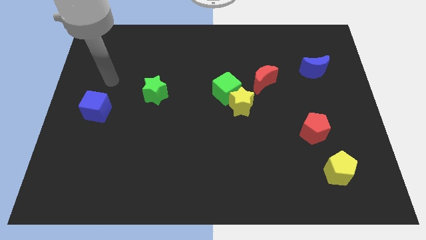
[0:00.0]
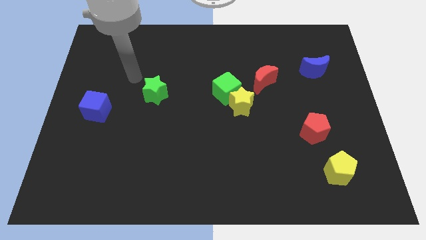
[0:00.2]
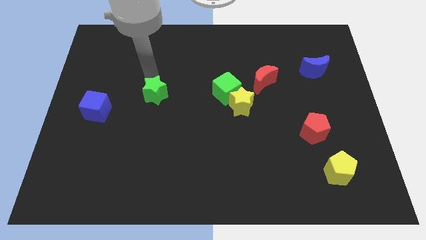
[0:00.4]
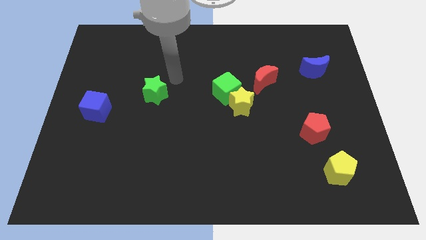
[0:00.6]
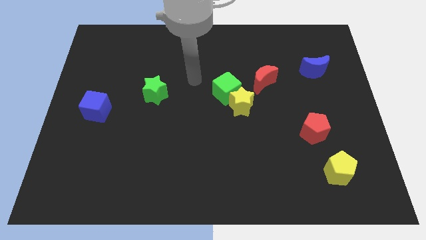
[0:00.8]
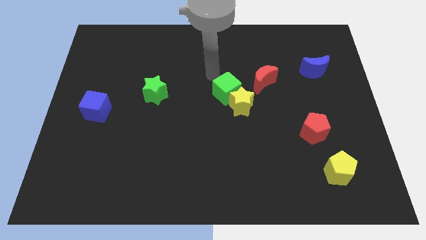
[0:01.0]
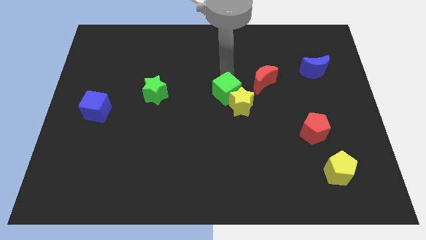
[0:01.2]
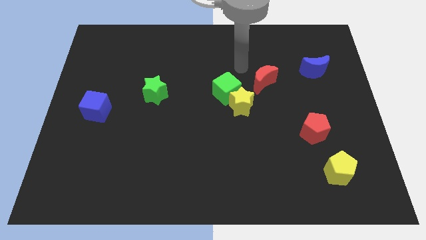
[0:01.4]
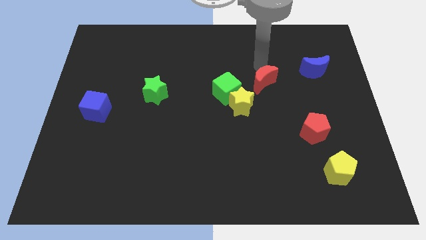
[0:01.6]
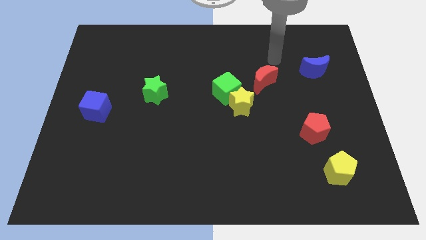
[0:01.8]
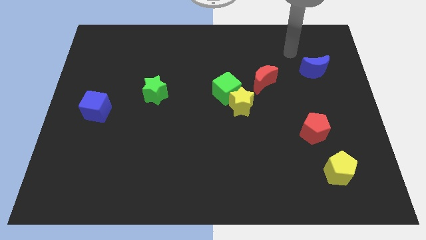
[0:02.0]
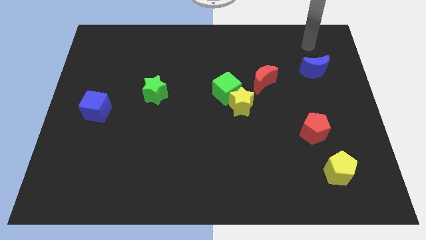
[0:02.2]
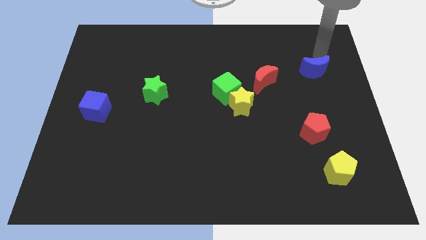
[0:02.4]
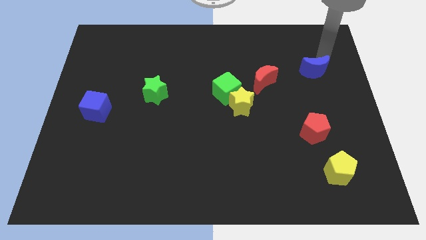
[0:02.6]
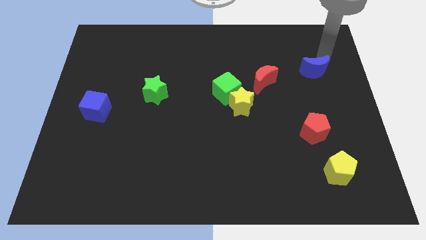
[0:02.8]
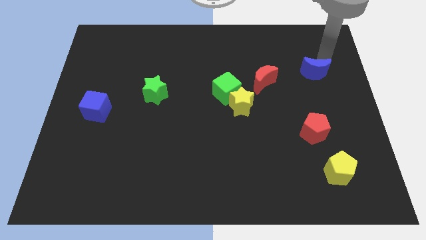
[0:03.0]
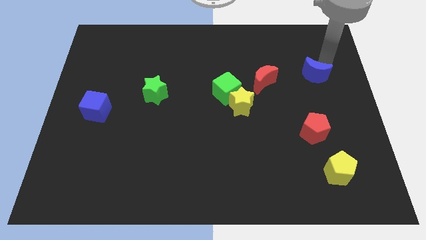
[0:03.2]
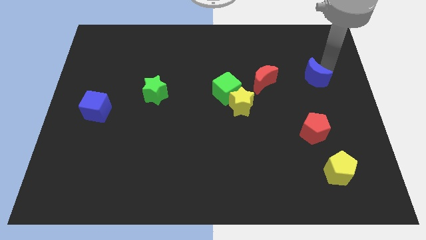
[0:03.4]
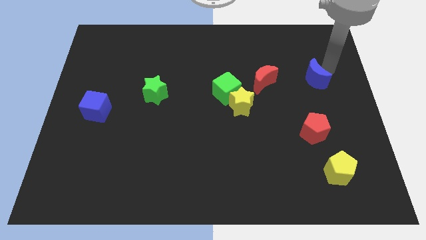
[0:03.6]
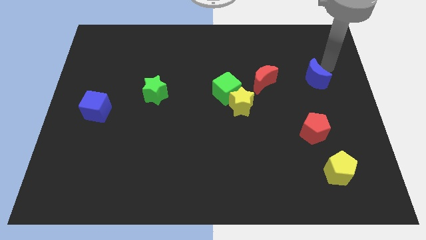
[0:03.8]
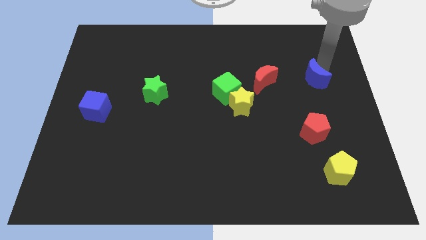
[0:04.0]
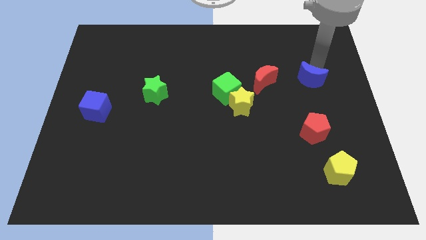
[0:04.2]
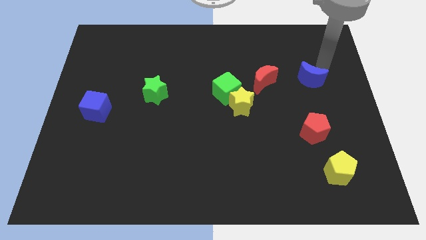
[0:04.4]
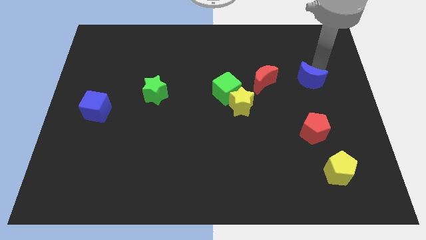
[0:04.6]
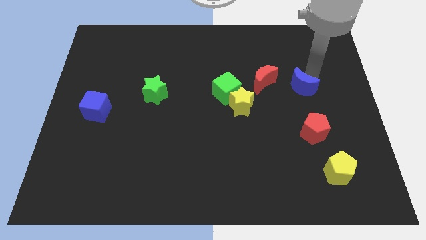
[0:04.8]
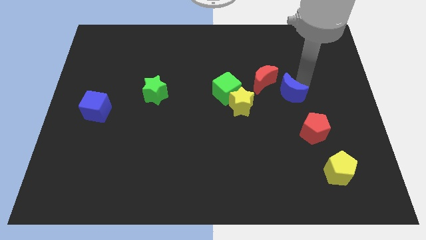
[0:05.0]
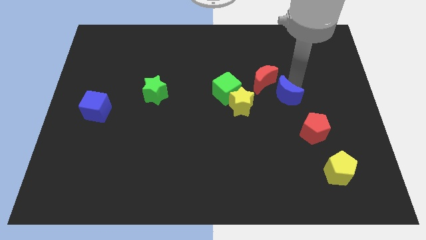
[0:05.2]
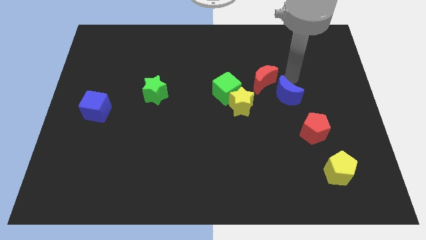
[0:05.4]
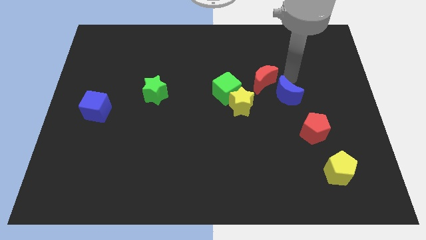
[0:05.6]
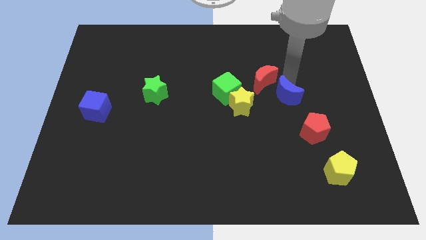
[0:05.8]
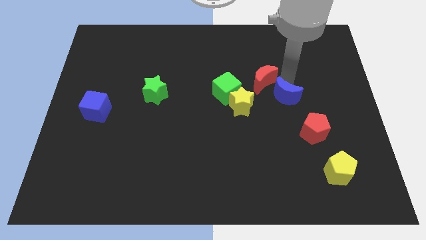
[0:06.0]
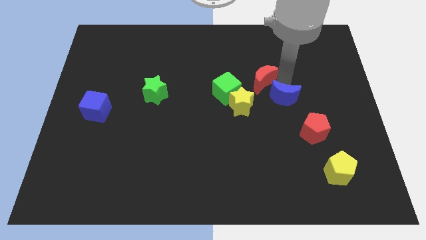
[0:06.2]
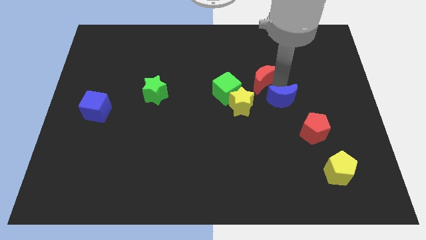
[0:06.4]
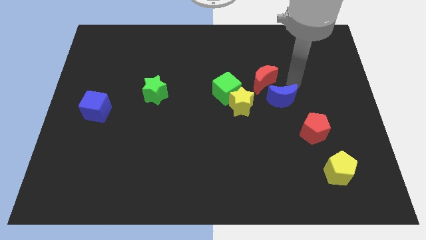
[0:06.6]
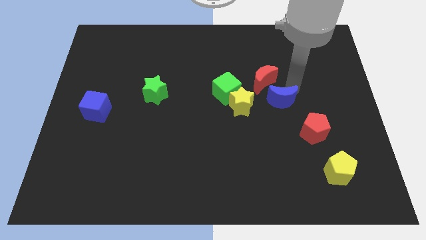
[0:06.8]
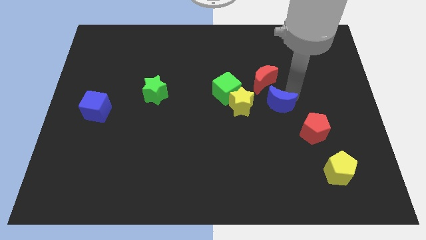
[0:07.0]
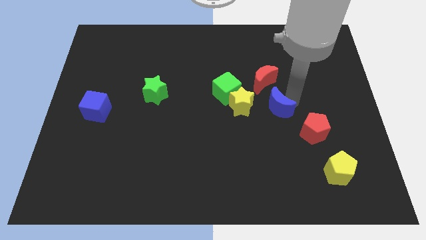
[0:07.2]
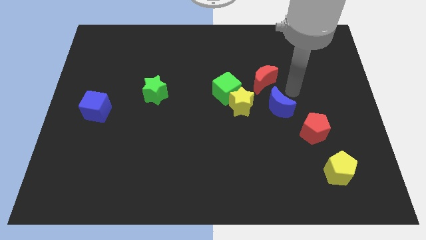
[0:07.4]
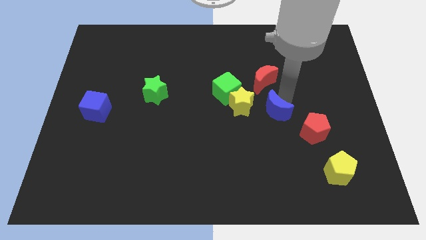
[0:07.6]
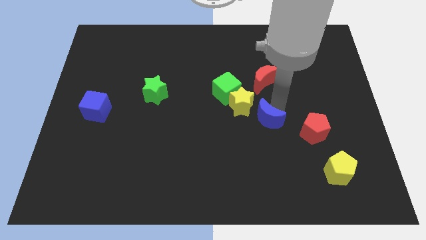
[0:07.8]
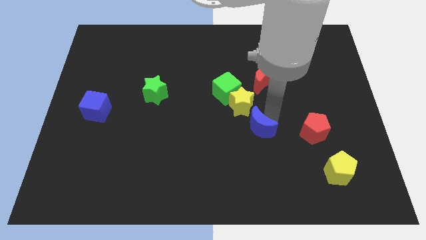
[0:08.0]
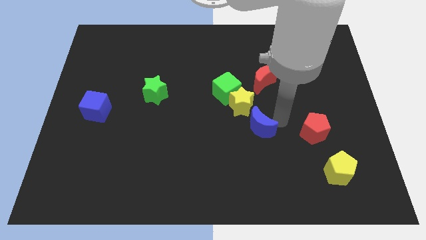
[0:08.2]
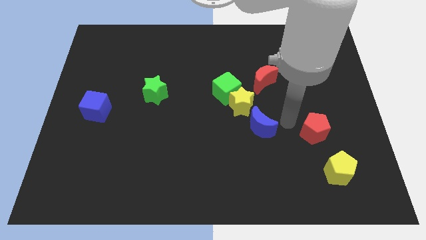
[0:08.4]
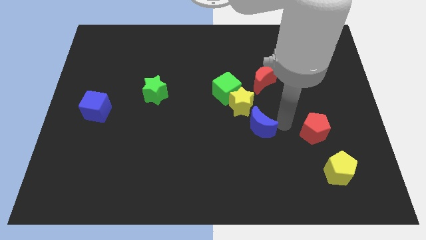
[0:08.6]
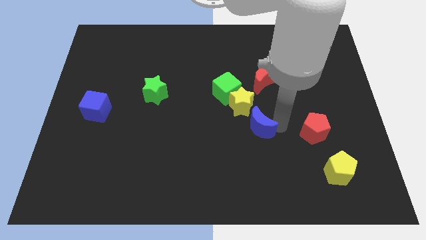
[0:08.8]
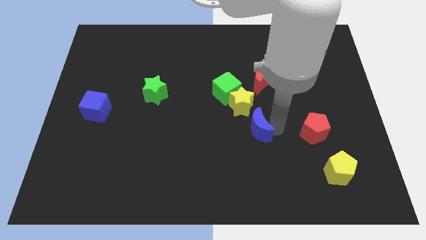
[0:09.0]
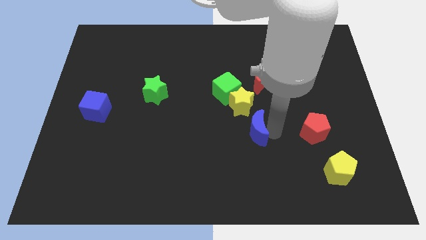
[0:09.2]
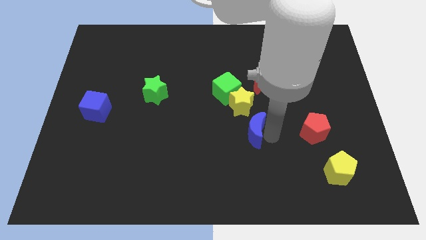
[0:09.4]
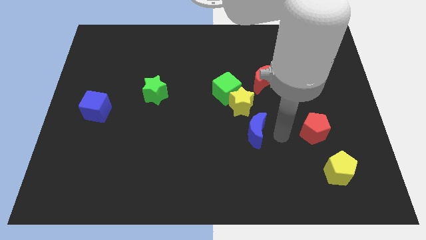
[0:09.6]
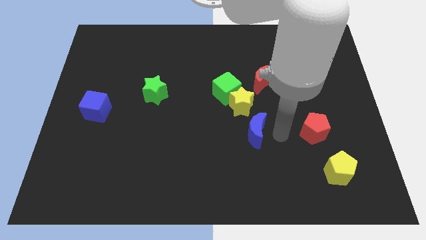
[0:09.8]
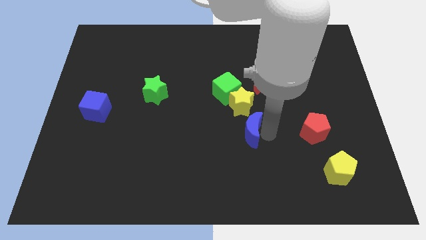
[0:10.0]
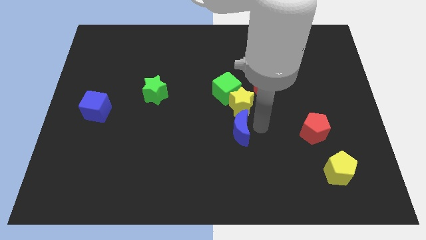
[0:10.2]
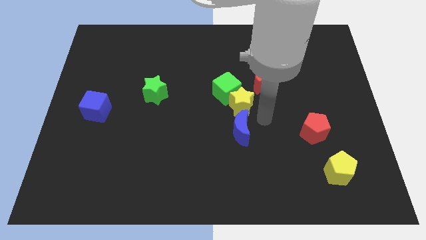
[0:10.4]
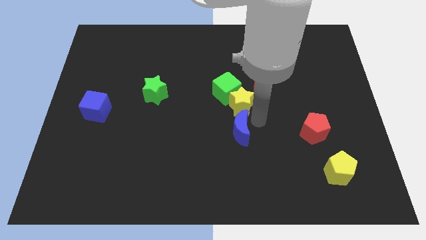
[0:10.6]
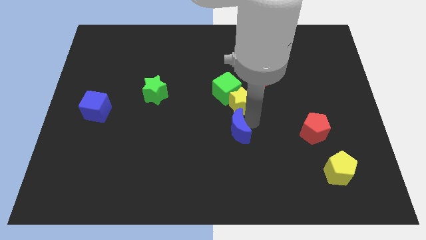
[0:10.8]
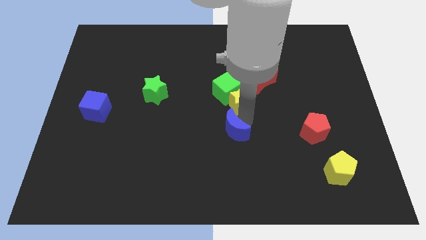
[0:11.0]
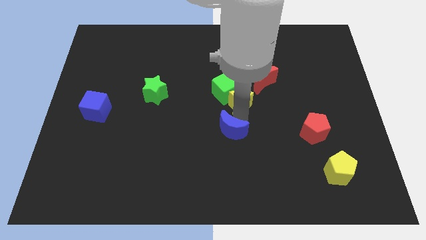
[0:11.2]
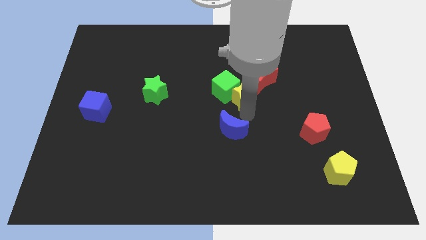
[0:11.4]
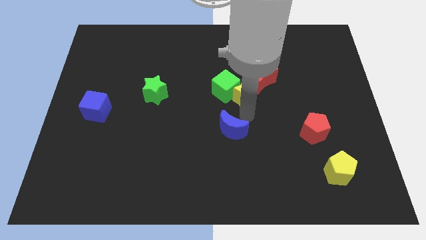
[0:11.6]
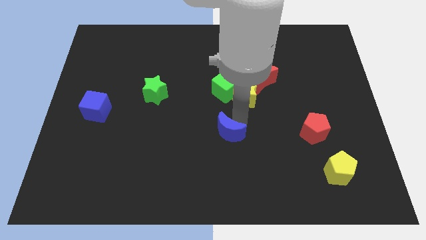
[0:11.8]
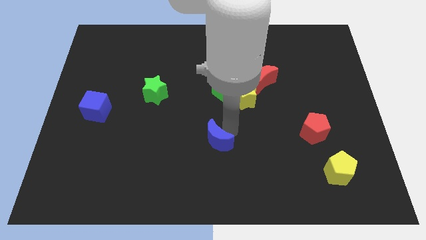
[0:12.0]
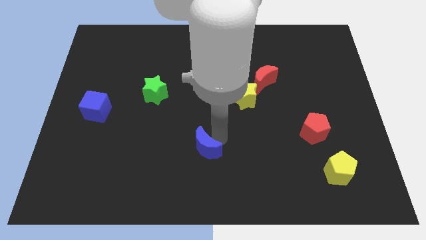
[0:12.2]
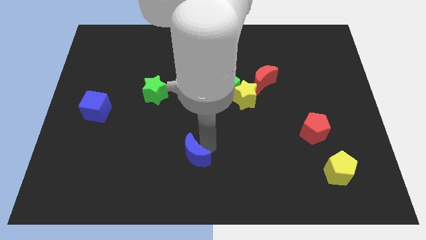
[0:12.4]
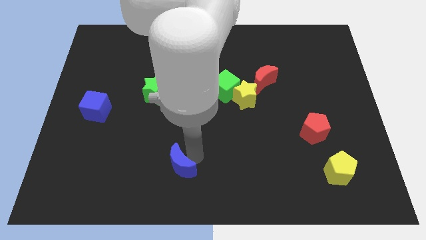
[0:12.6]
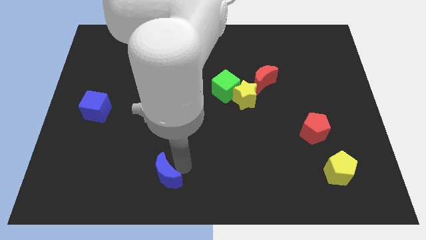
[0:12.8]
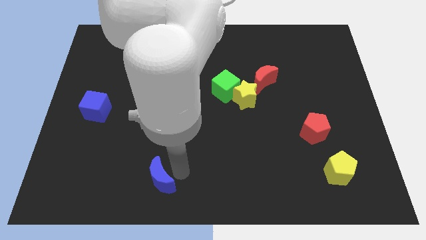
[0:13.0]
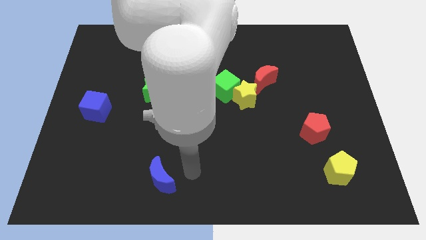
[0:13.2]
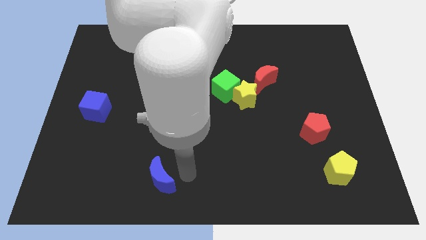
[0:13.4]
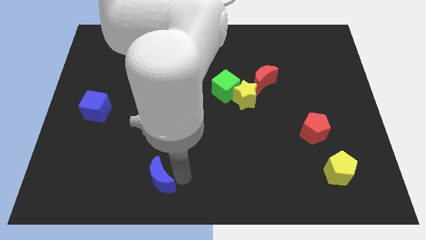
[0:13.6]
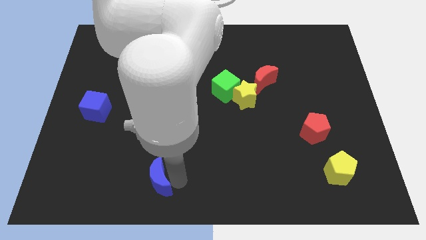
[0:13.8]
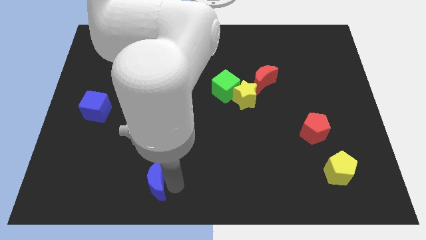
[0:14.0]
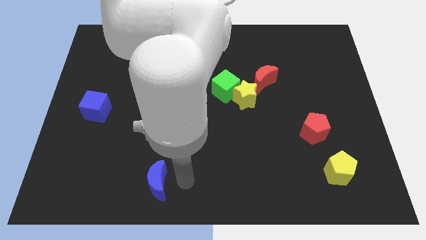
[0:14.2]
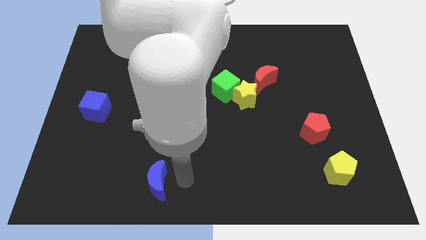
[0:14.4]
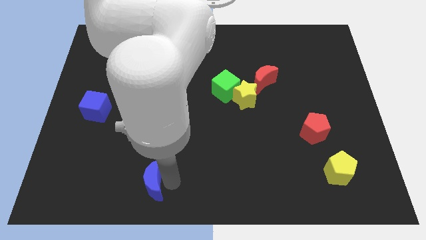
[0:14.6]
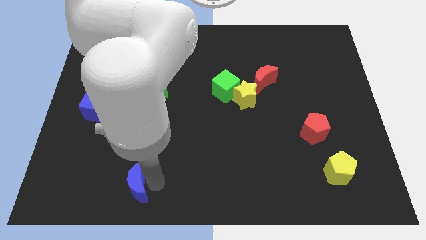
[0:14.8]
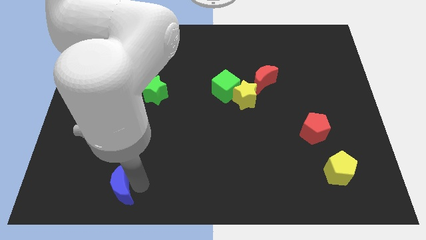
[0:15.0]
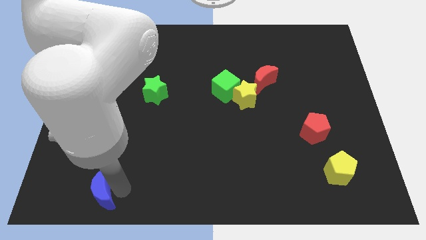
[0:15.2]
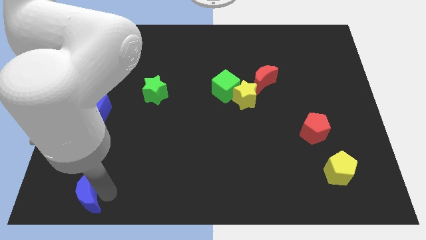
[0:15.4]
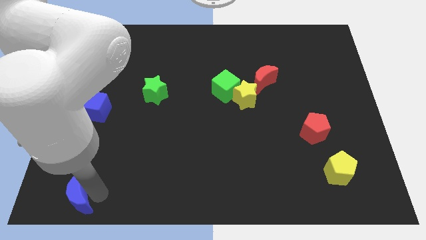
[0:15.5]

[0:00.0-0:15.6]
slide the blue moon to the bottom left corner
